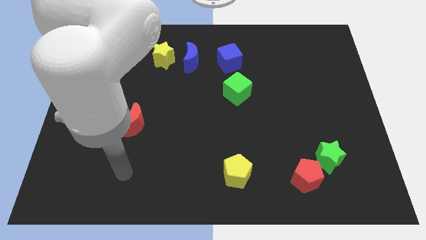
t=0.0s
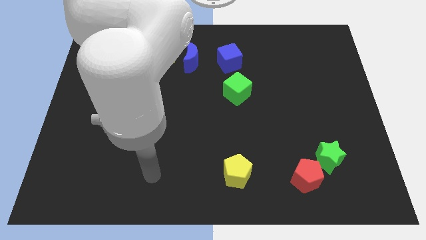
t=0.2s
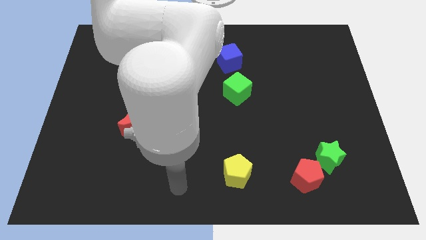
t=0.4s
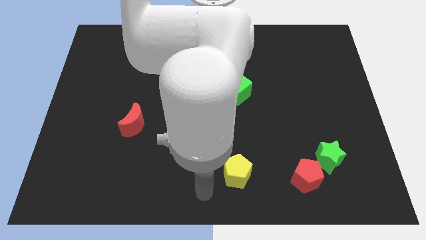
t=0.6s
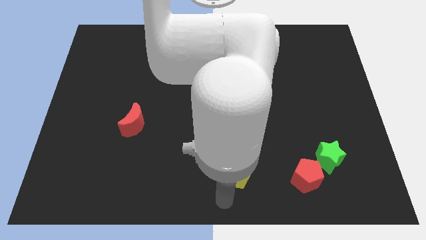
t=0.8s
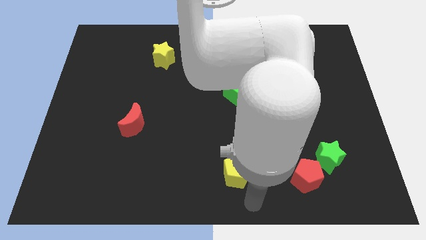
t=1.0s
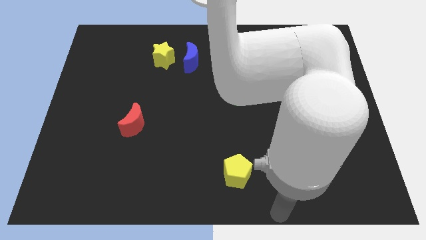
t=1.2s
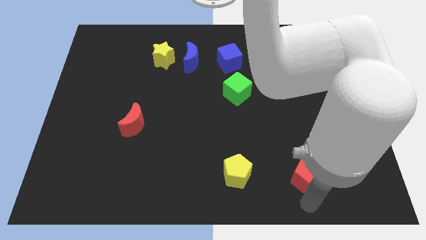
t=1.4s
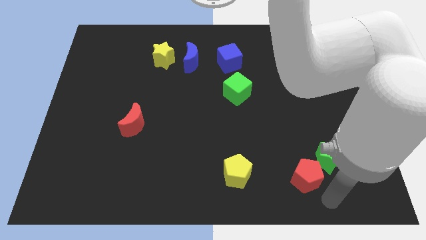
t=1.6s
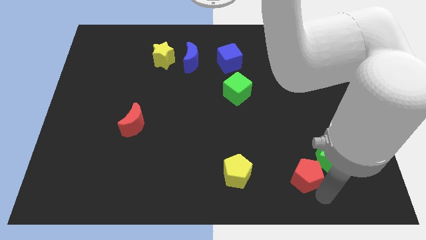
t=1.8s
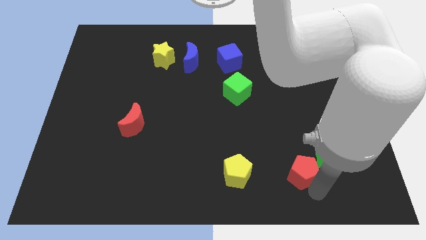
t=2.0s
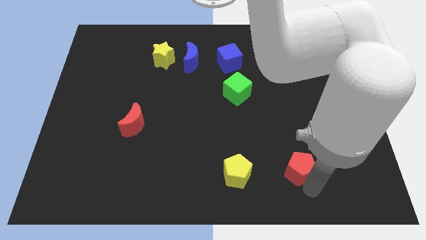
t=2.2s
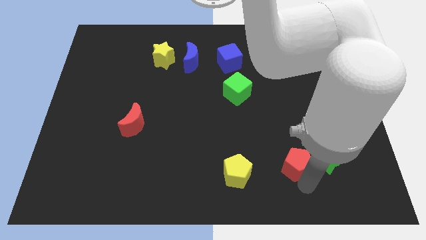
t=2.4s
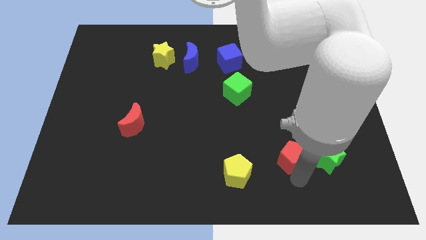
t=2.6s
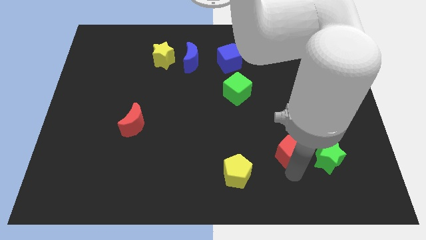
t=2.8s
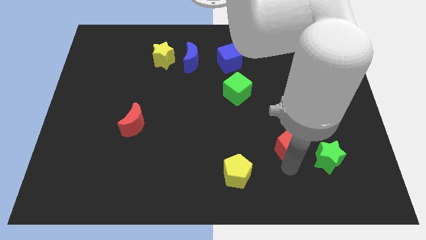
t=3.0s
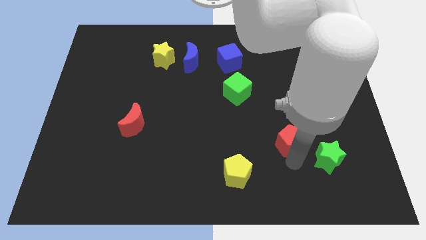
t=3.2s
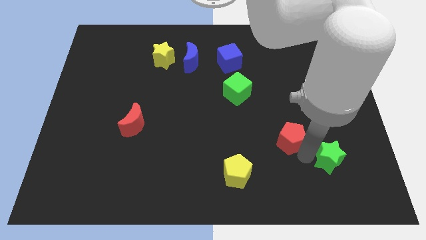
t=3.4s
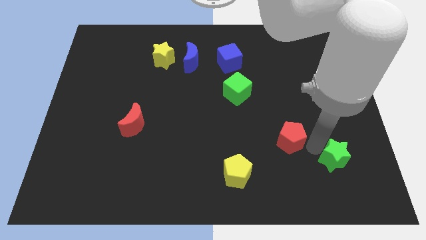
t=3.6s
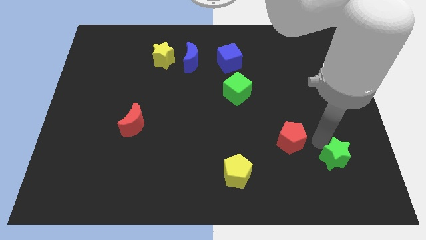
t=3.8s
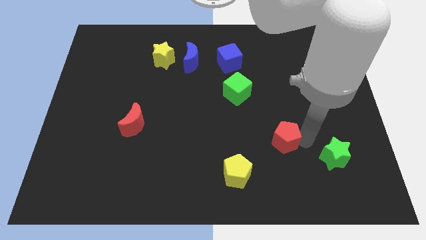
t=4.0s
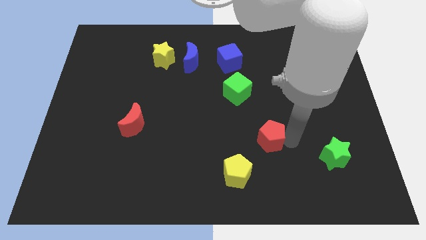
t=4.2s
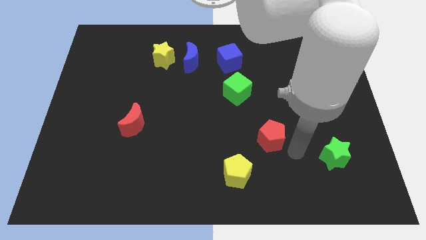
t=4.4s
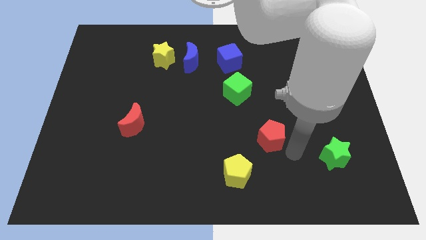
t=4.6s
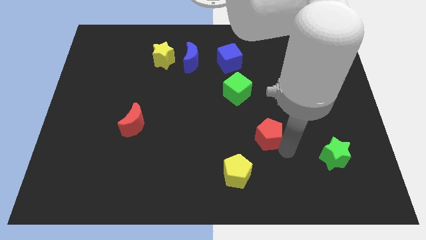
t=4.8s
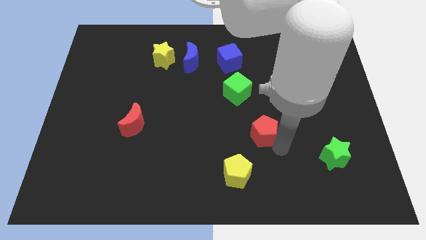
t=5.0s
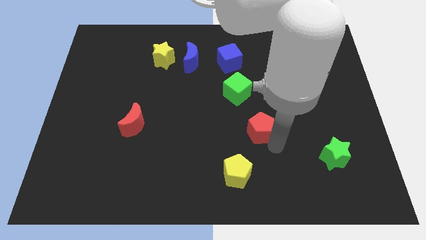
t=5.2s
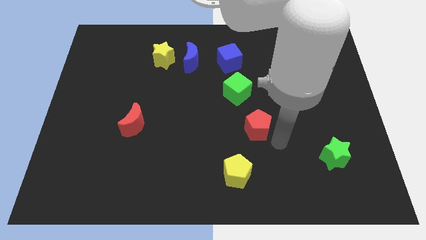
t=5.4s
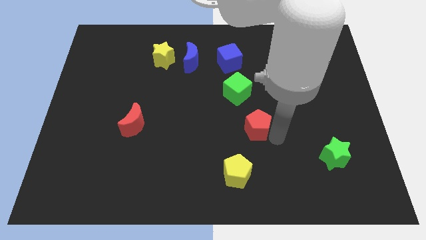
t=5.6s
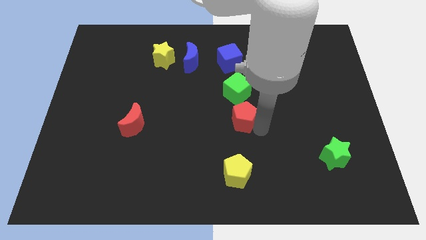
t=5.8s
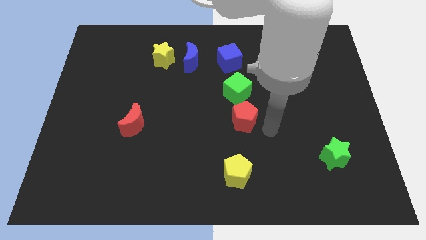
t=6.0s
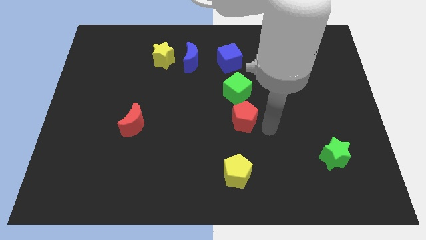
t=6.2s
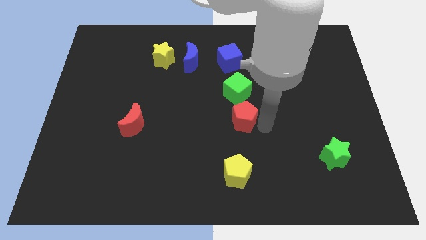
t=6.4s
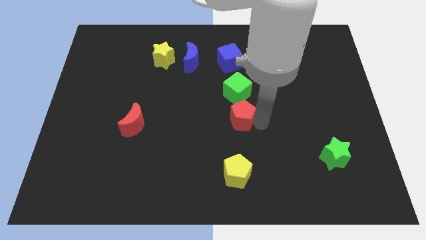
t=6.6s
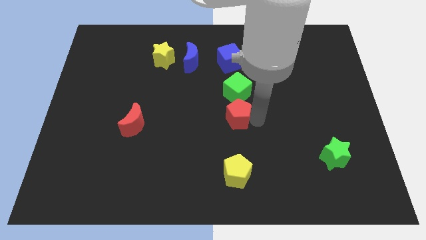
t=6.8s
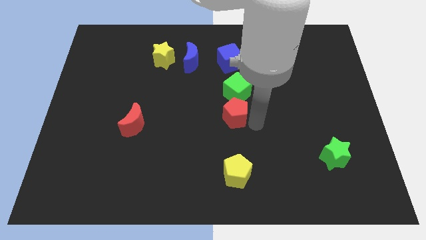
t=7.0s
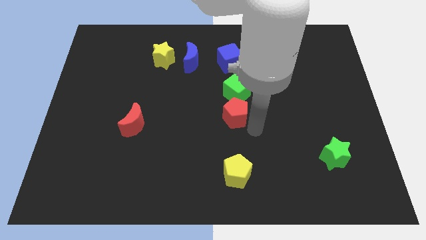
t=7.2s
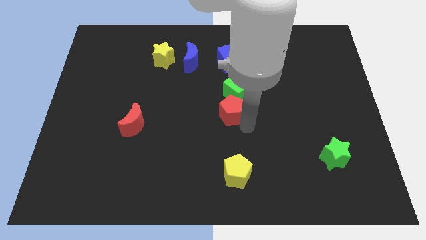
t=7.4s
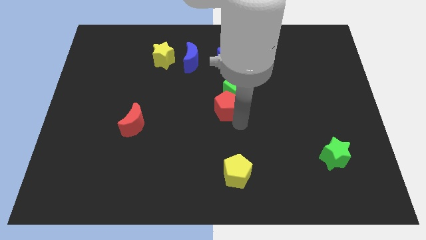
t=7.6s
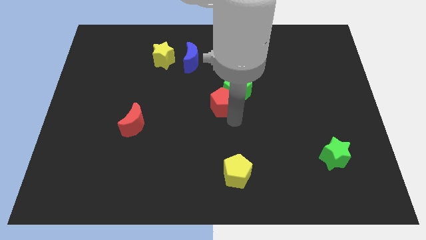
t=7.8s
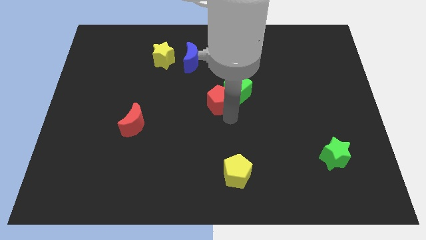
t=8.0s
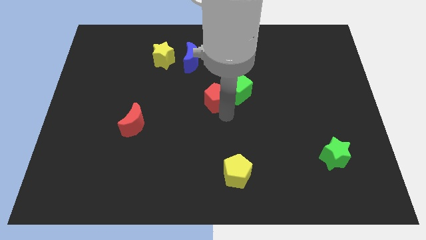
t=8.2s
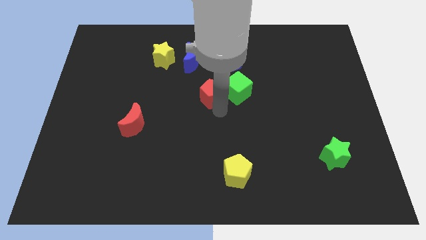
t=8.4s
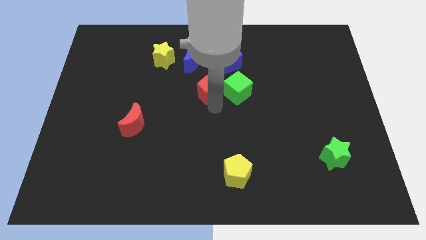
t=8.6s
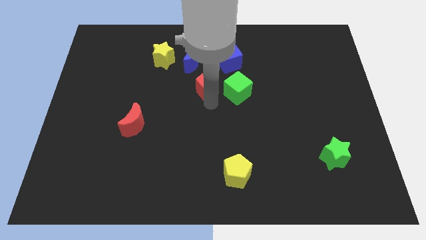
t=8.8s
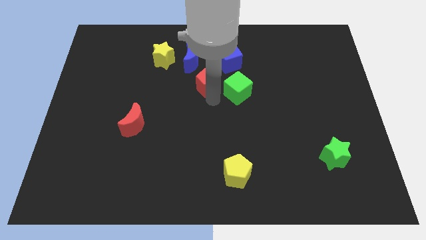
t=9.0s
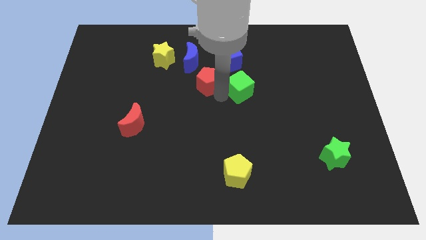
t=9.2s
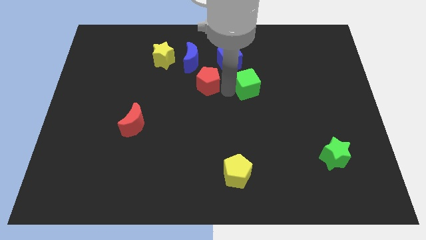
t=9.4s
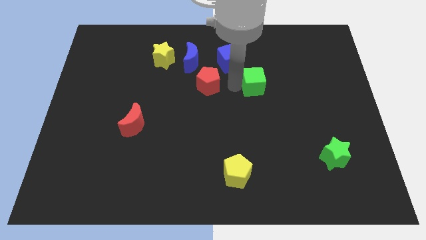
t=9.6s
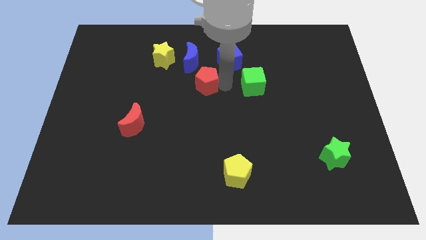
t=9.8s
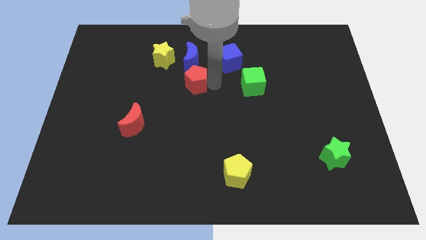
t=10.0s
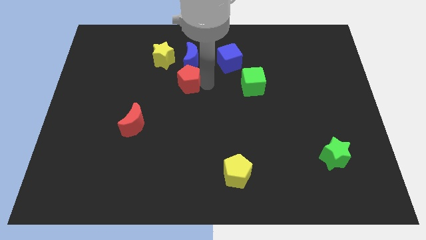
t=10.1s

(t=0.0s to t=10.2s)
move the red pentagon diagonally down and to the left of the blue moon

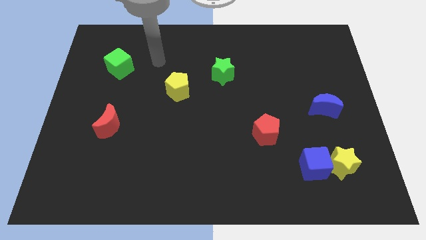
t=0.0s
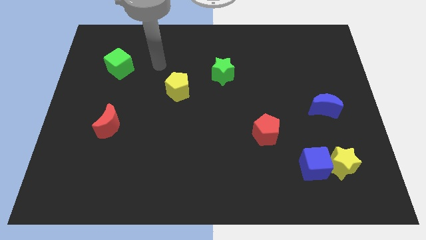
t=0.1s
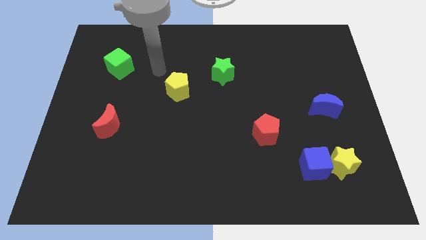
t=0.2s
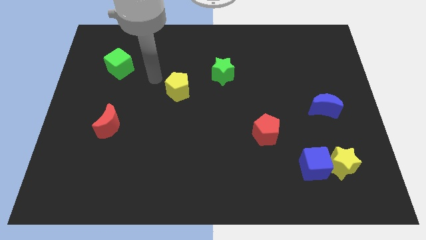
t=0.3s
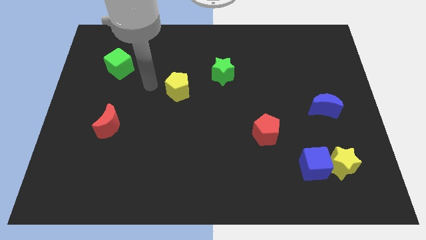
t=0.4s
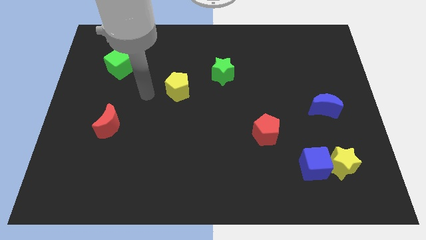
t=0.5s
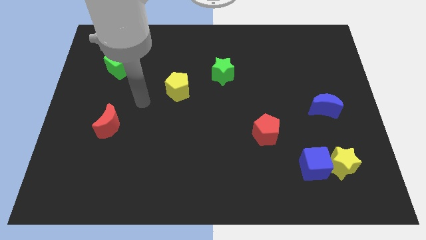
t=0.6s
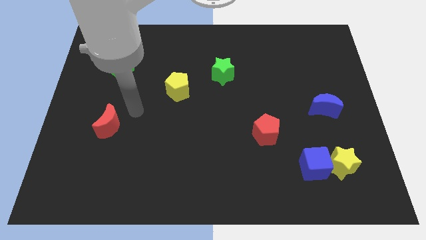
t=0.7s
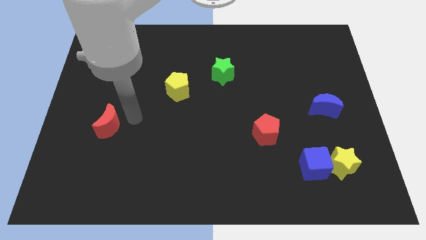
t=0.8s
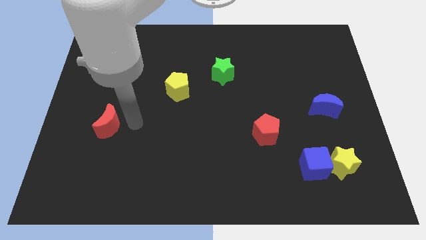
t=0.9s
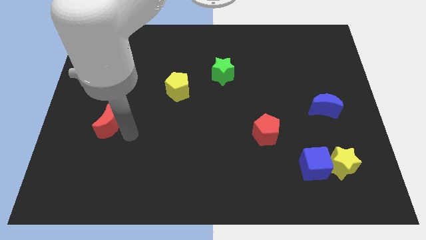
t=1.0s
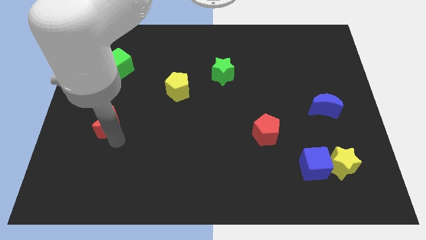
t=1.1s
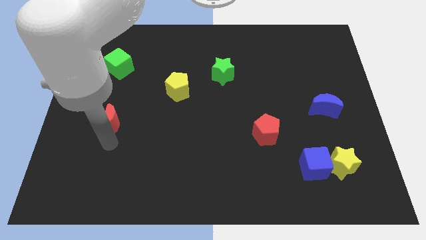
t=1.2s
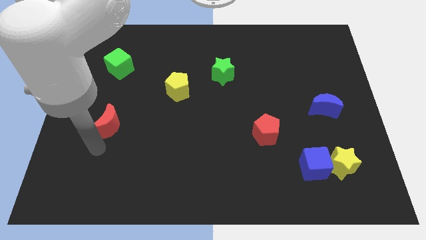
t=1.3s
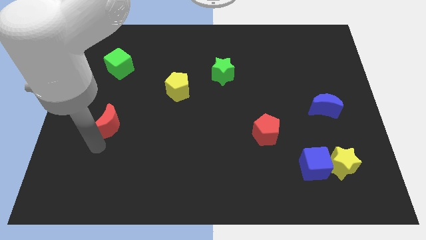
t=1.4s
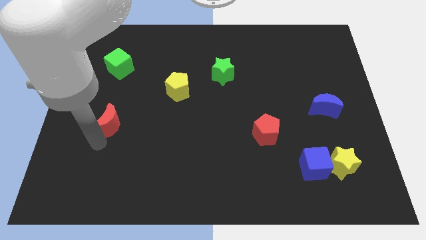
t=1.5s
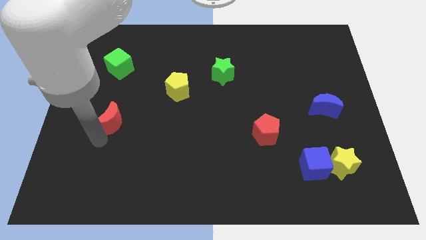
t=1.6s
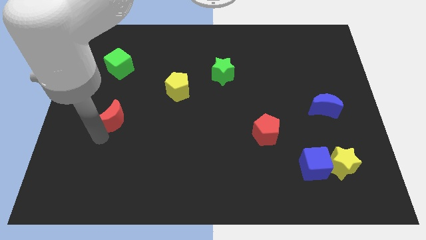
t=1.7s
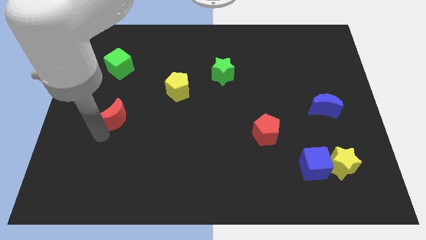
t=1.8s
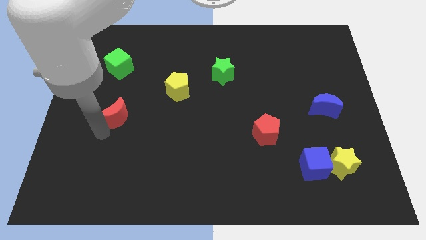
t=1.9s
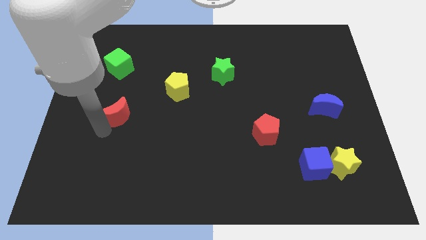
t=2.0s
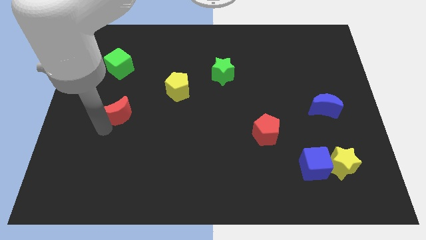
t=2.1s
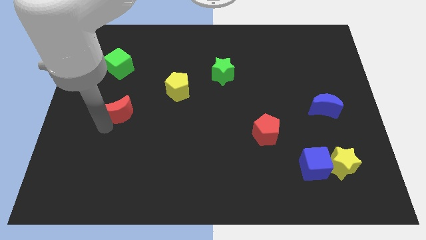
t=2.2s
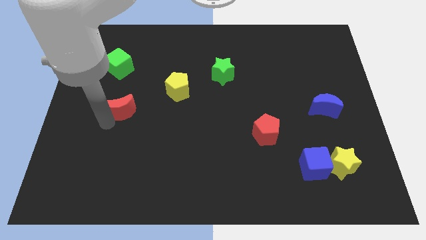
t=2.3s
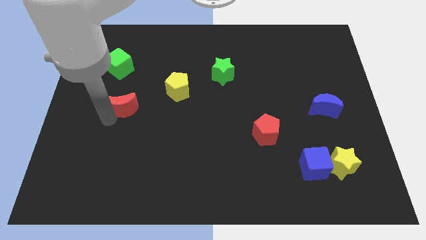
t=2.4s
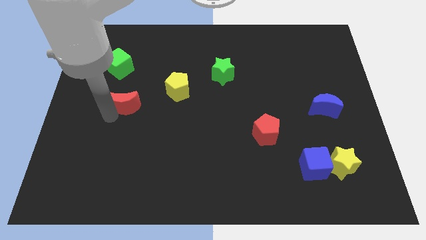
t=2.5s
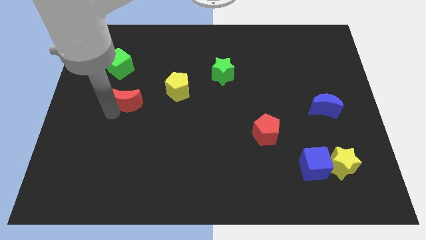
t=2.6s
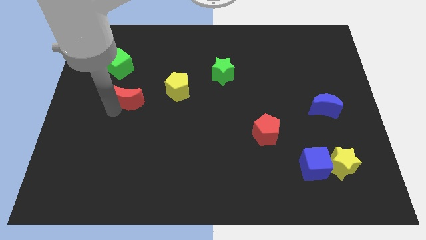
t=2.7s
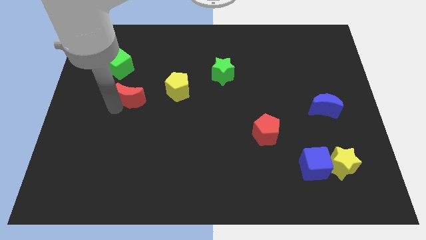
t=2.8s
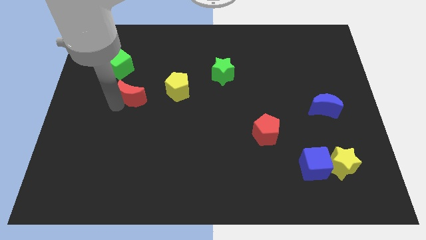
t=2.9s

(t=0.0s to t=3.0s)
push the red moon to the bottom right side of the green cube
